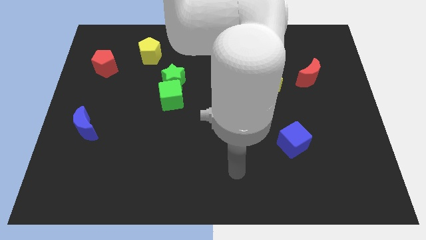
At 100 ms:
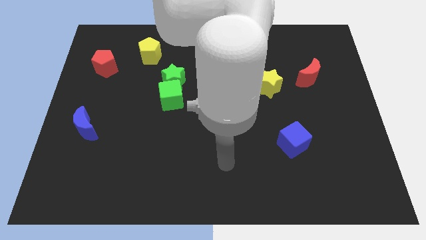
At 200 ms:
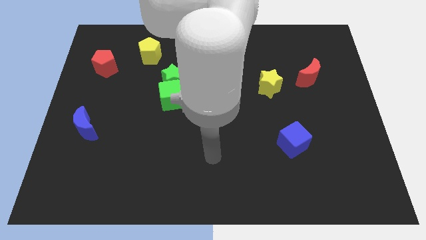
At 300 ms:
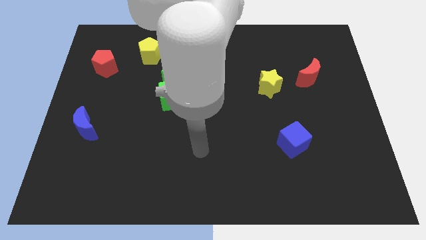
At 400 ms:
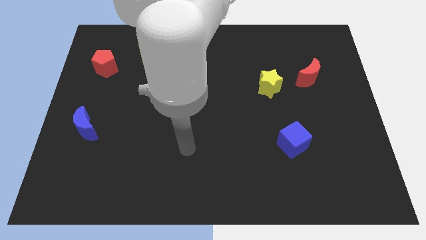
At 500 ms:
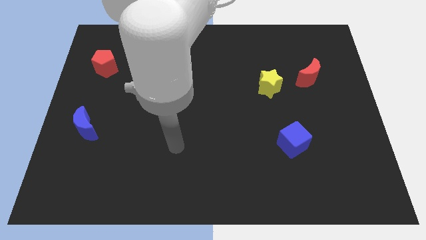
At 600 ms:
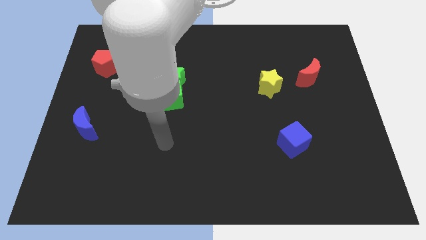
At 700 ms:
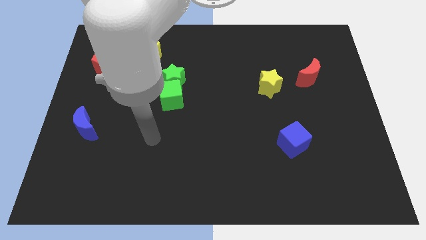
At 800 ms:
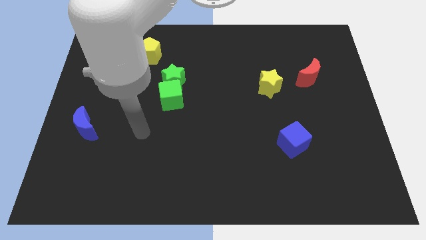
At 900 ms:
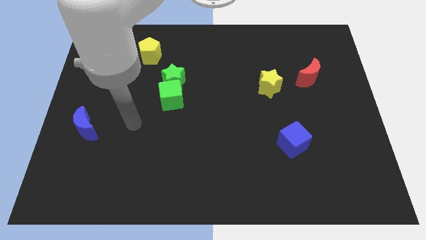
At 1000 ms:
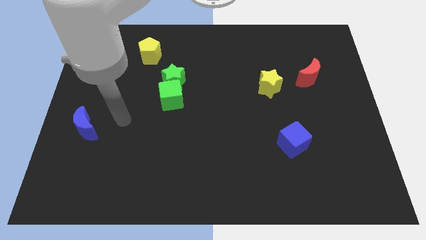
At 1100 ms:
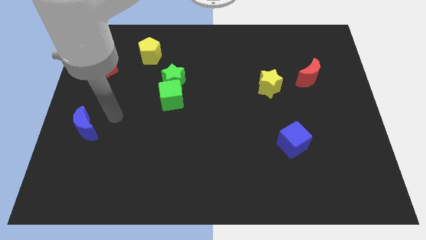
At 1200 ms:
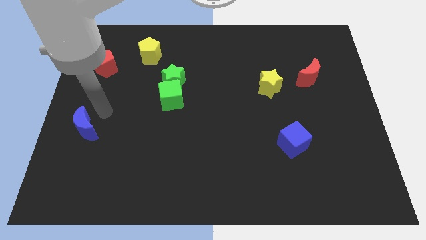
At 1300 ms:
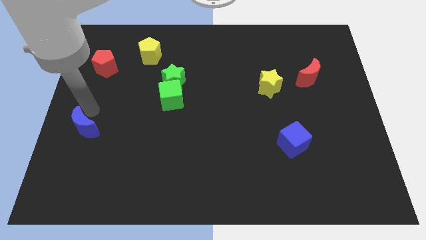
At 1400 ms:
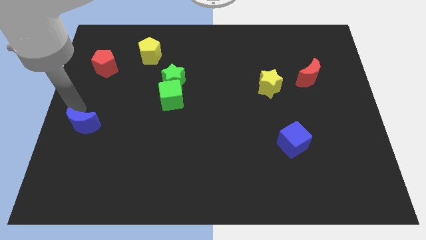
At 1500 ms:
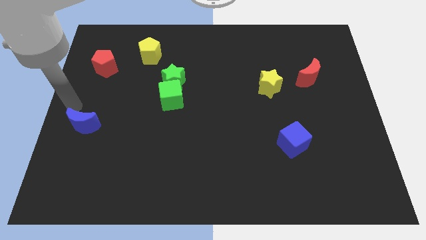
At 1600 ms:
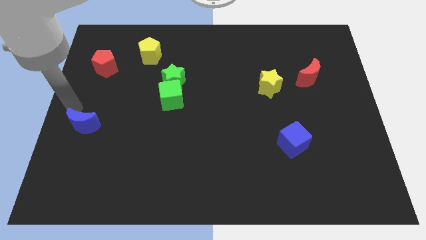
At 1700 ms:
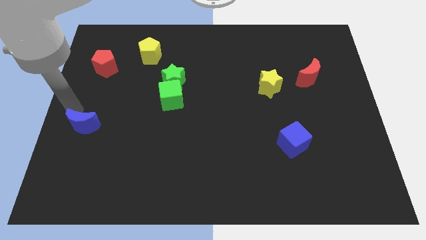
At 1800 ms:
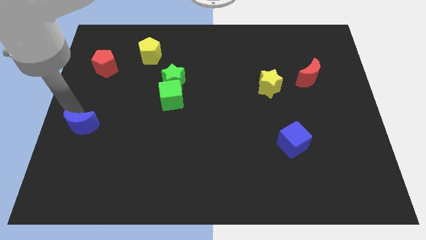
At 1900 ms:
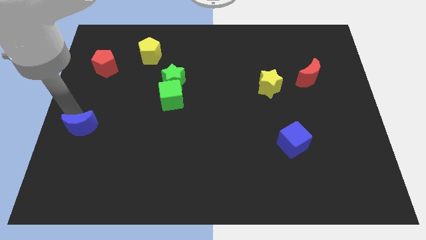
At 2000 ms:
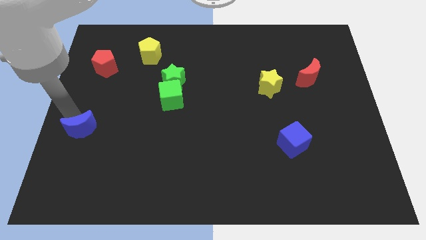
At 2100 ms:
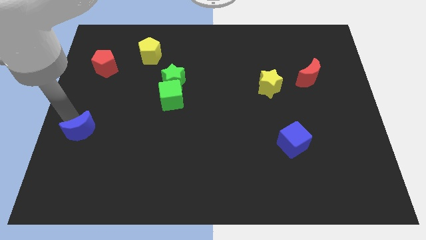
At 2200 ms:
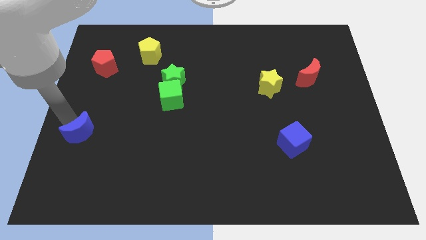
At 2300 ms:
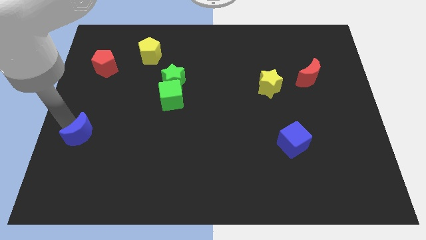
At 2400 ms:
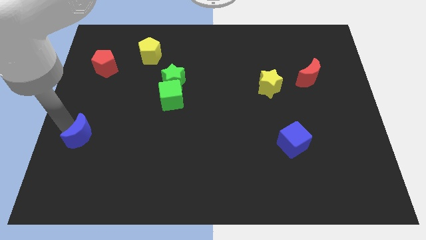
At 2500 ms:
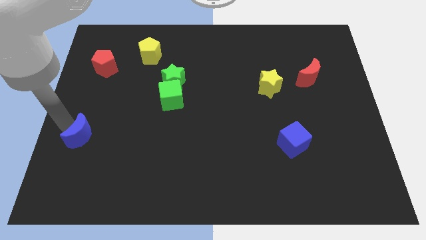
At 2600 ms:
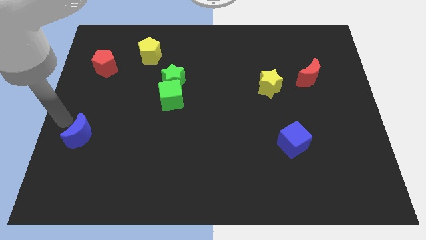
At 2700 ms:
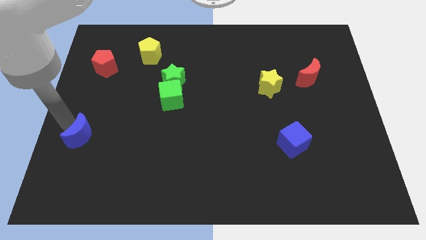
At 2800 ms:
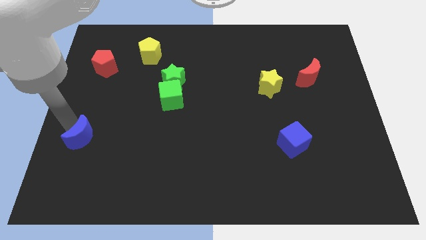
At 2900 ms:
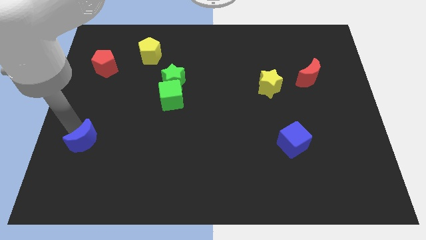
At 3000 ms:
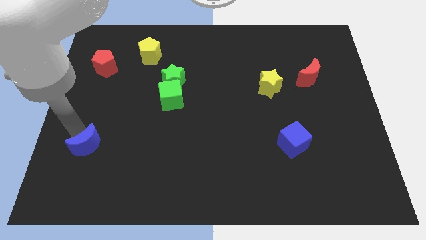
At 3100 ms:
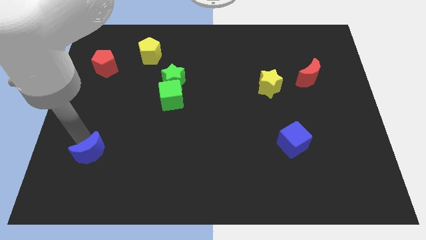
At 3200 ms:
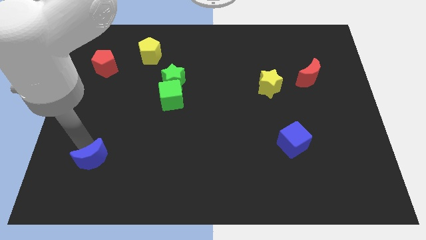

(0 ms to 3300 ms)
push the blue moon slightly downwards and then to the right

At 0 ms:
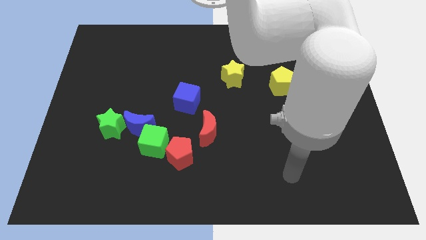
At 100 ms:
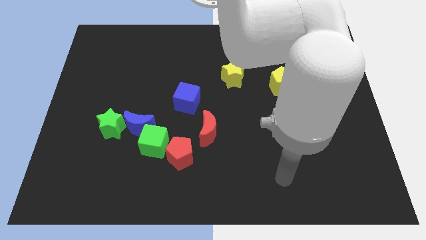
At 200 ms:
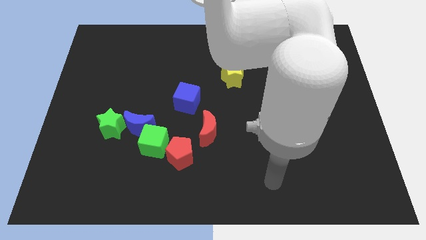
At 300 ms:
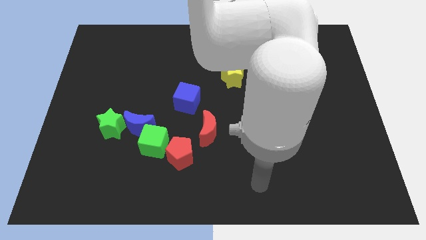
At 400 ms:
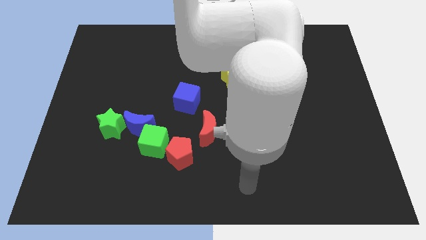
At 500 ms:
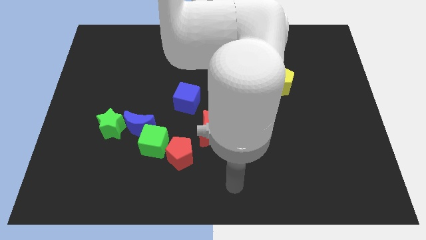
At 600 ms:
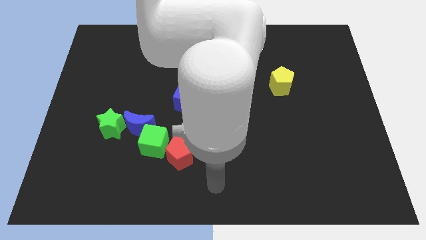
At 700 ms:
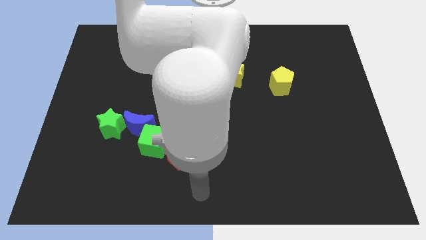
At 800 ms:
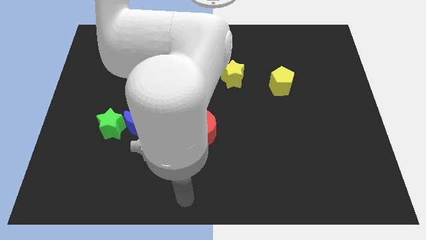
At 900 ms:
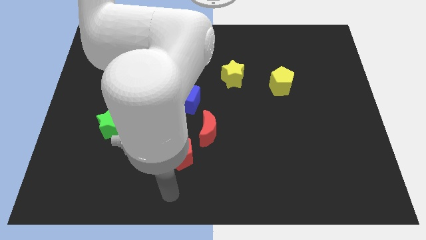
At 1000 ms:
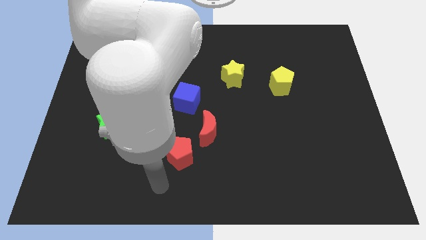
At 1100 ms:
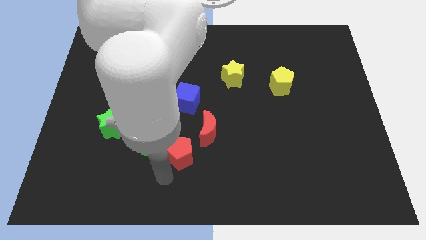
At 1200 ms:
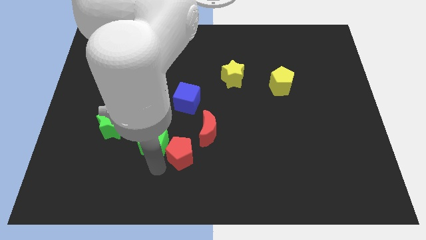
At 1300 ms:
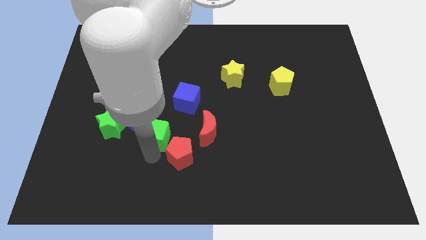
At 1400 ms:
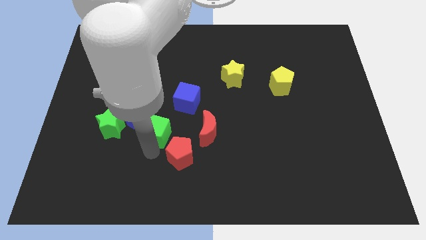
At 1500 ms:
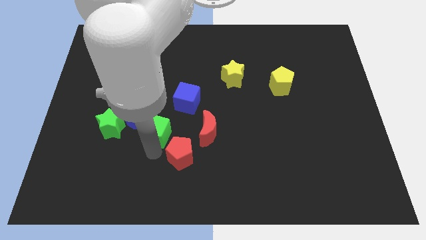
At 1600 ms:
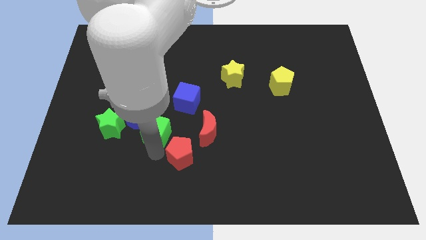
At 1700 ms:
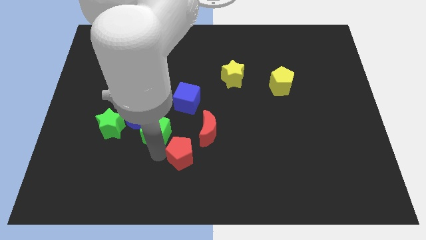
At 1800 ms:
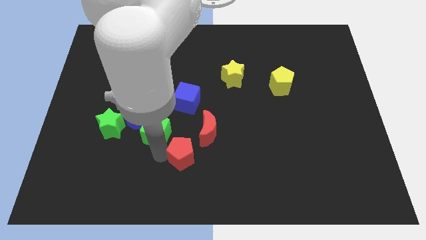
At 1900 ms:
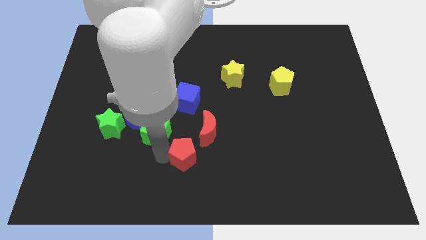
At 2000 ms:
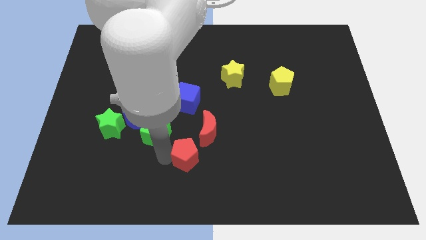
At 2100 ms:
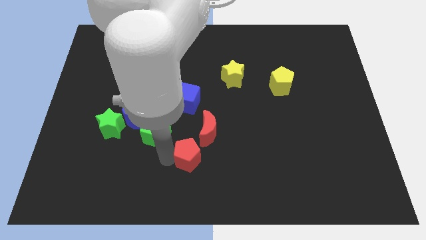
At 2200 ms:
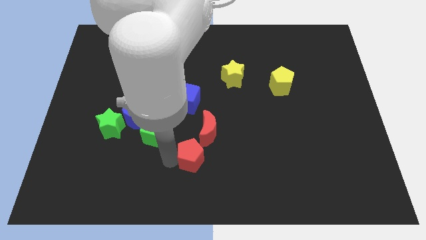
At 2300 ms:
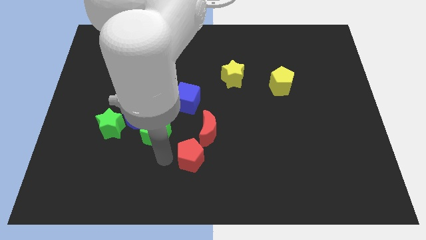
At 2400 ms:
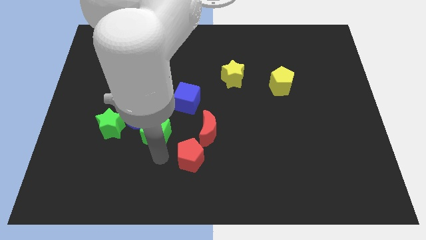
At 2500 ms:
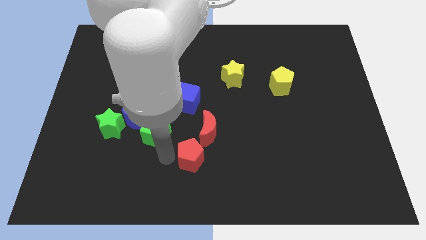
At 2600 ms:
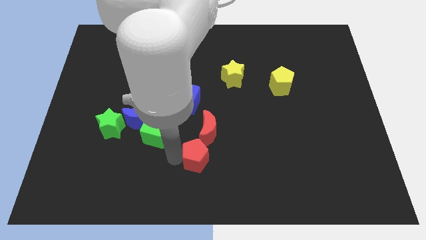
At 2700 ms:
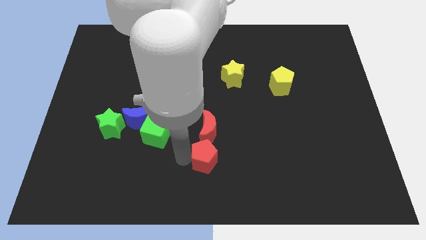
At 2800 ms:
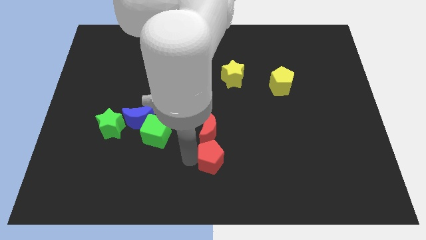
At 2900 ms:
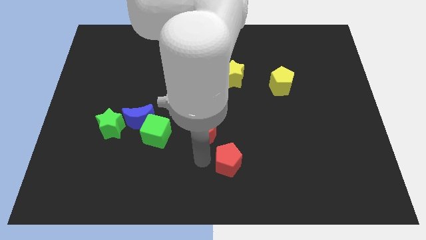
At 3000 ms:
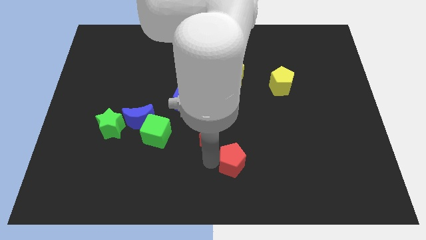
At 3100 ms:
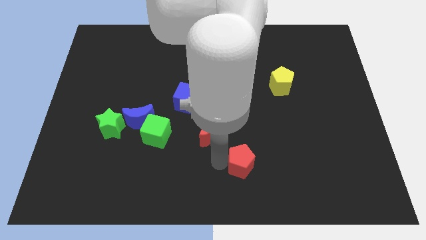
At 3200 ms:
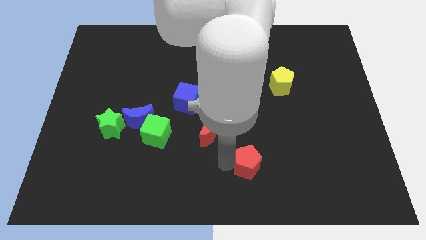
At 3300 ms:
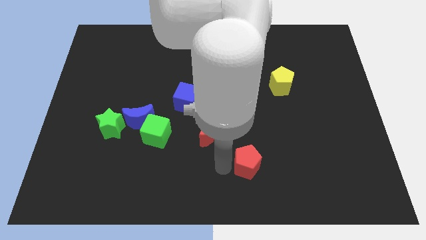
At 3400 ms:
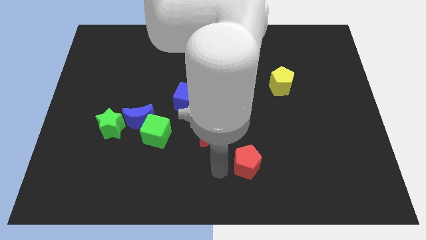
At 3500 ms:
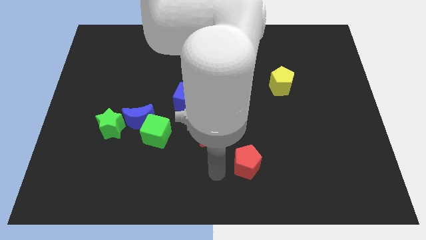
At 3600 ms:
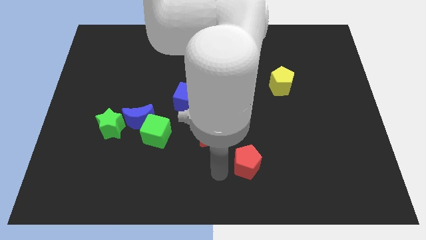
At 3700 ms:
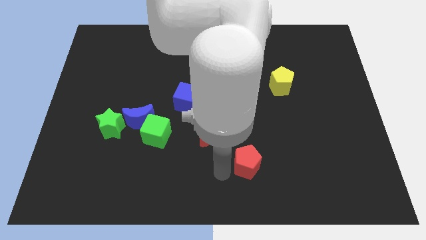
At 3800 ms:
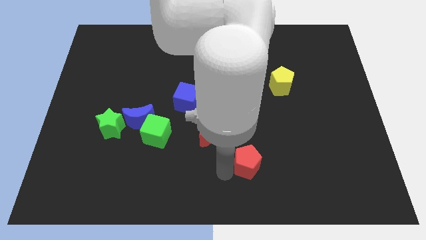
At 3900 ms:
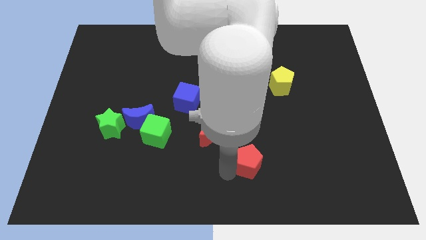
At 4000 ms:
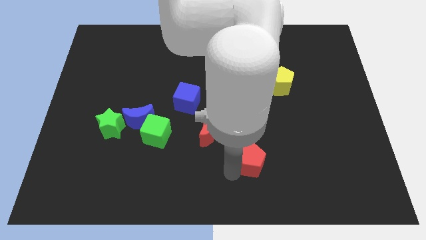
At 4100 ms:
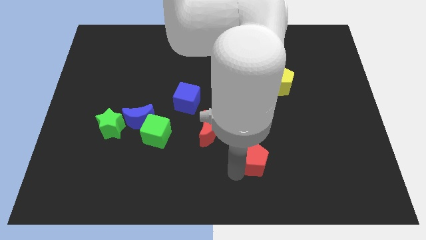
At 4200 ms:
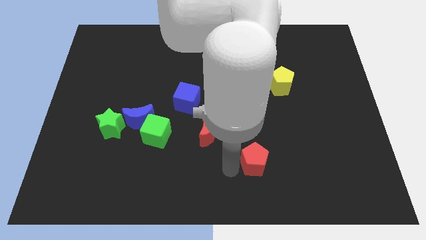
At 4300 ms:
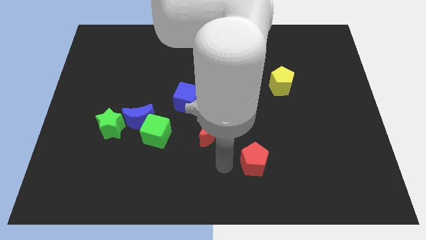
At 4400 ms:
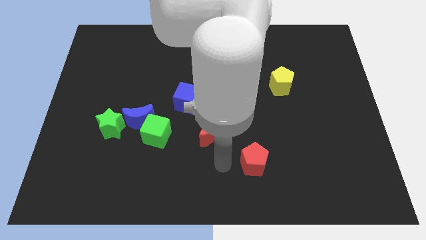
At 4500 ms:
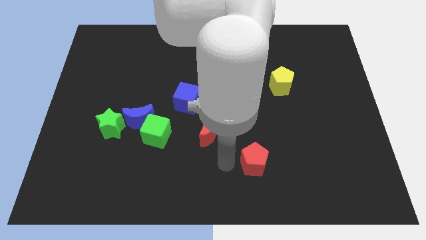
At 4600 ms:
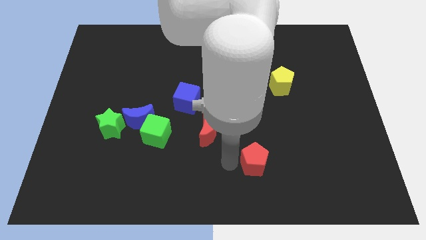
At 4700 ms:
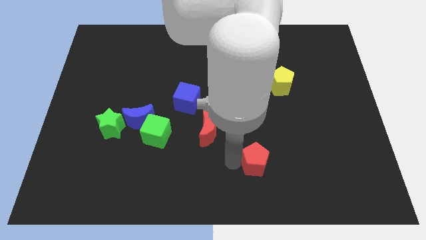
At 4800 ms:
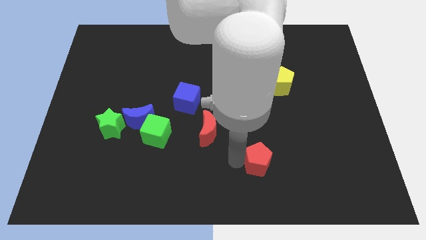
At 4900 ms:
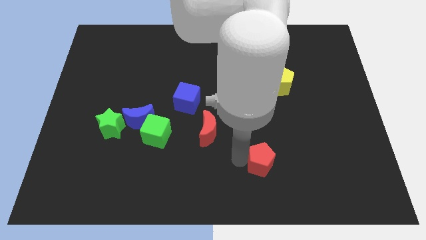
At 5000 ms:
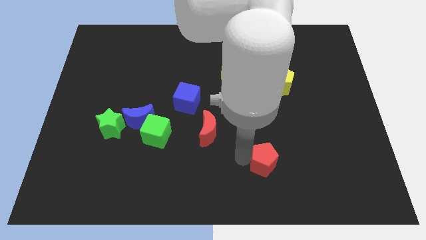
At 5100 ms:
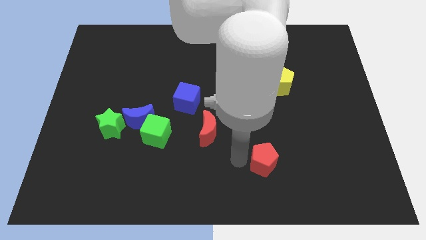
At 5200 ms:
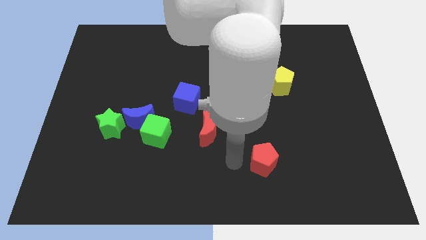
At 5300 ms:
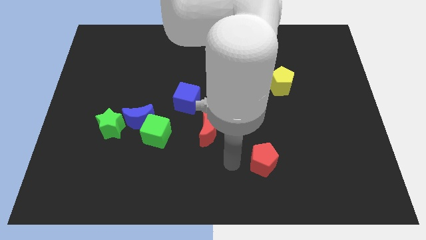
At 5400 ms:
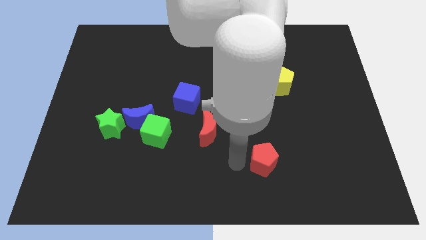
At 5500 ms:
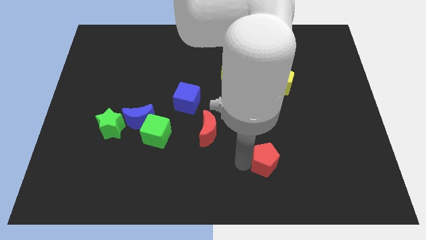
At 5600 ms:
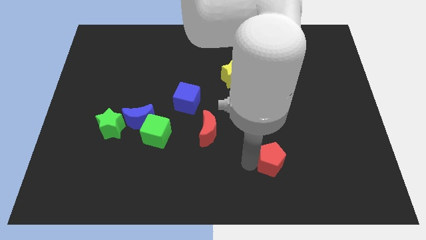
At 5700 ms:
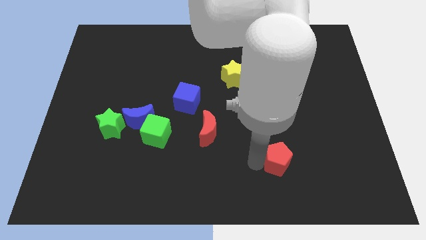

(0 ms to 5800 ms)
slide the red pentagon to the right
